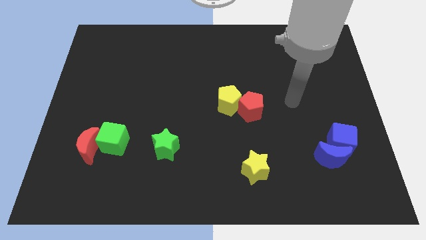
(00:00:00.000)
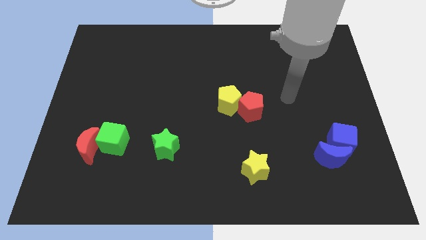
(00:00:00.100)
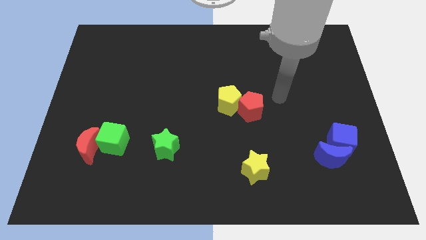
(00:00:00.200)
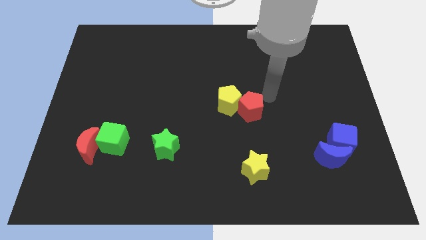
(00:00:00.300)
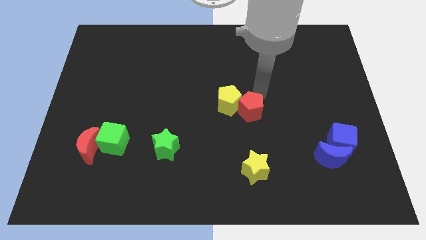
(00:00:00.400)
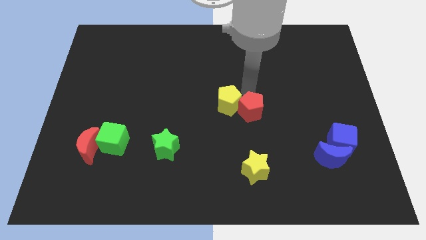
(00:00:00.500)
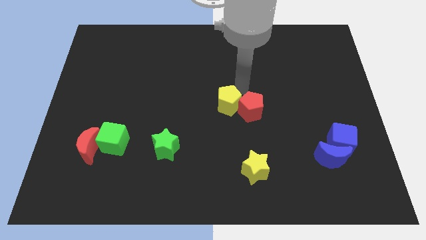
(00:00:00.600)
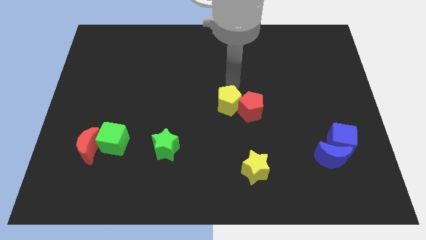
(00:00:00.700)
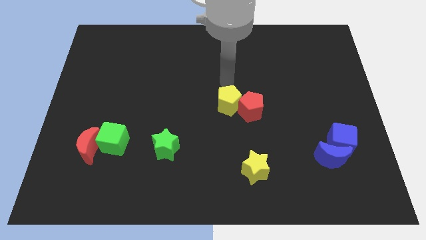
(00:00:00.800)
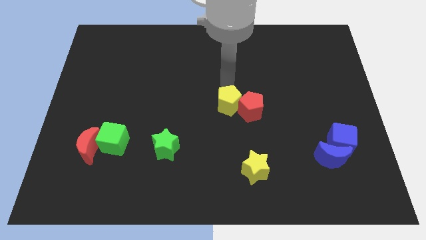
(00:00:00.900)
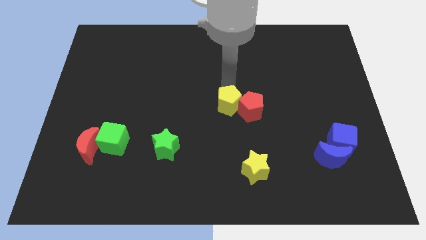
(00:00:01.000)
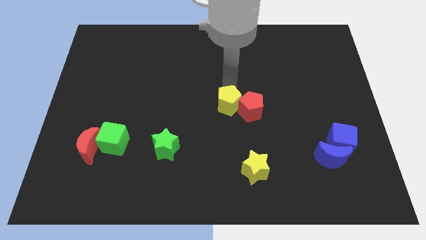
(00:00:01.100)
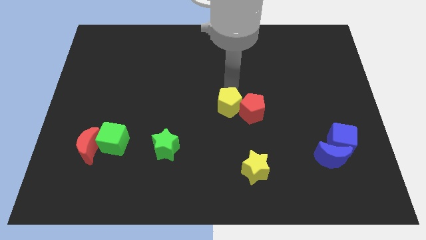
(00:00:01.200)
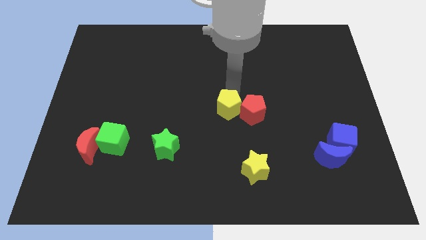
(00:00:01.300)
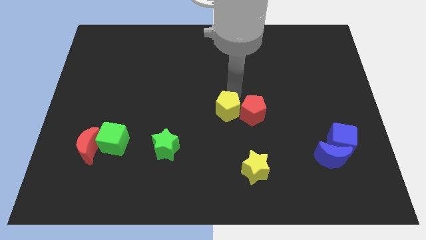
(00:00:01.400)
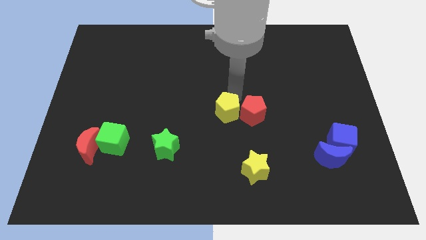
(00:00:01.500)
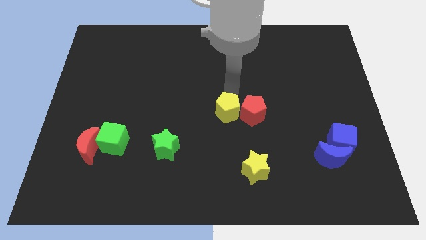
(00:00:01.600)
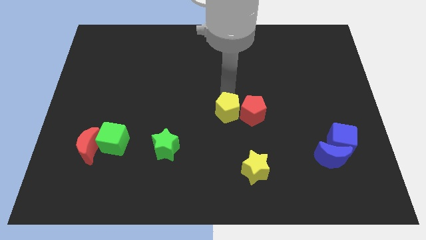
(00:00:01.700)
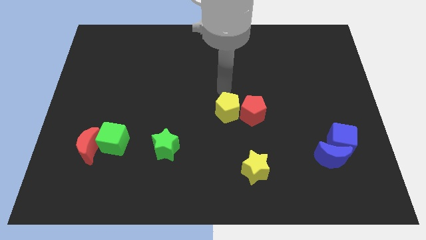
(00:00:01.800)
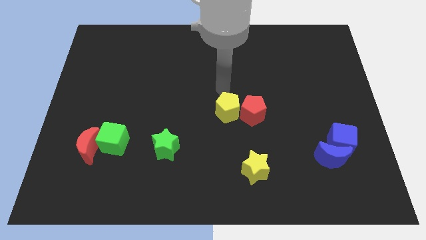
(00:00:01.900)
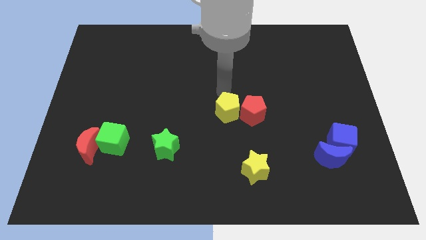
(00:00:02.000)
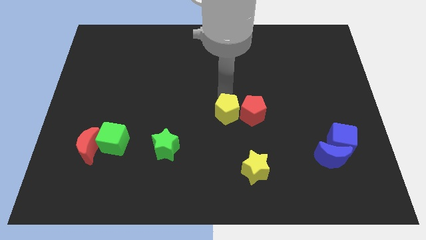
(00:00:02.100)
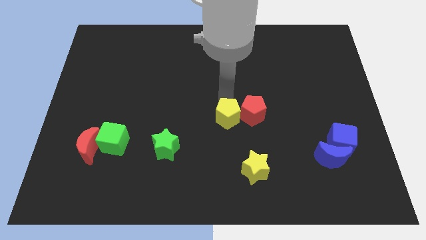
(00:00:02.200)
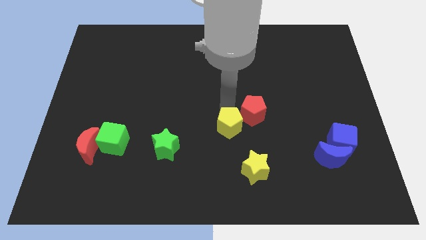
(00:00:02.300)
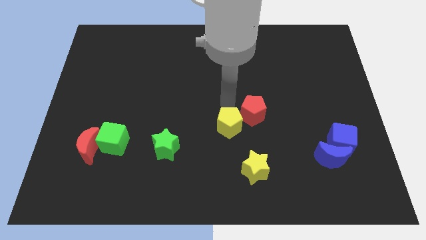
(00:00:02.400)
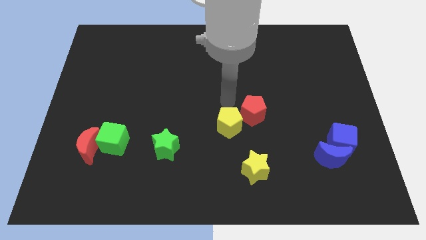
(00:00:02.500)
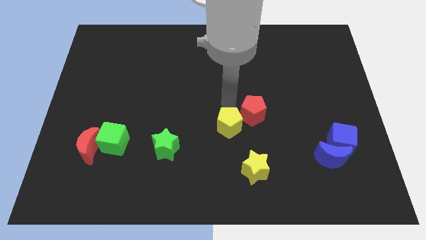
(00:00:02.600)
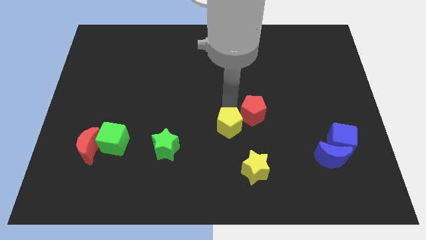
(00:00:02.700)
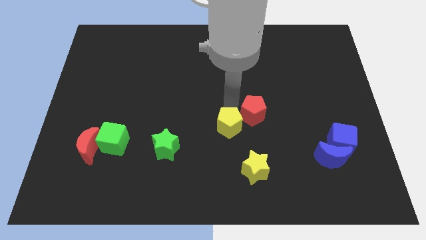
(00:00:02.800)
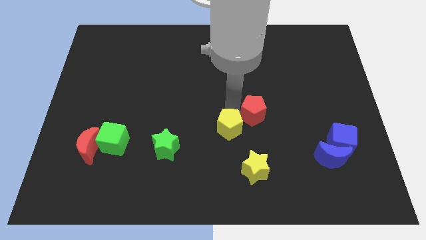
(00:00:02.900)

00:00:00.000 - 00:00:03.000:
slightly push the yellow pentagon down

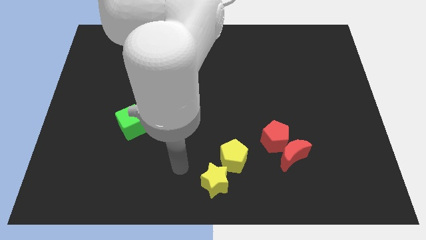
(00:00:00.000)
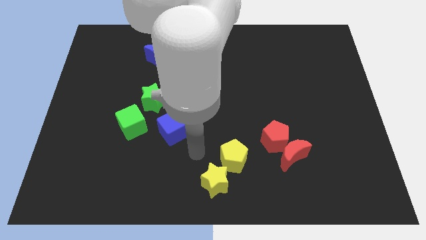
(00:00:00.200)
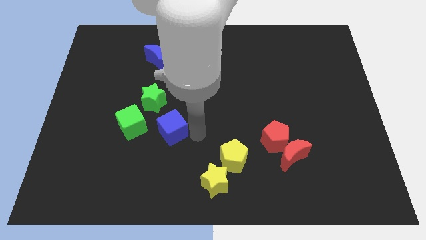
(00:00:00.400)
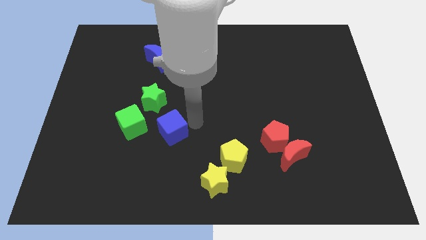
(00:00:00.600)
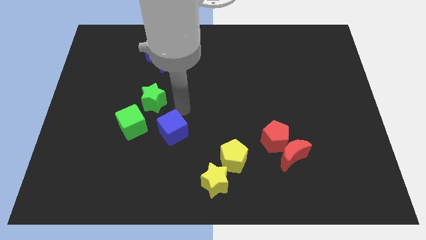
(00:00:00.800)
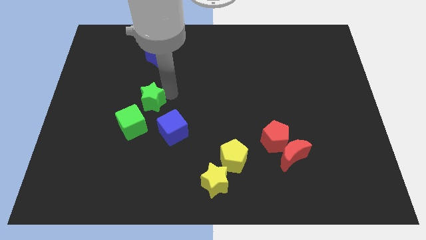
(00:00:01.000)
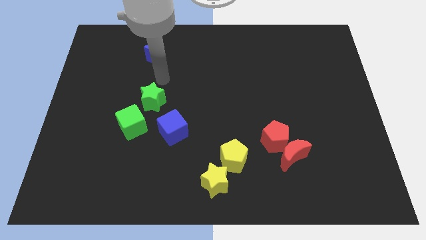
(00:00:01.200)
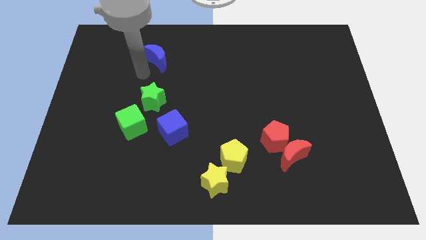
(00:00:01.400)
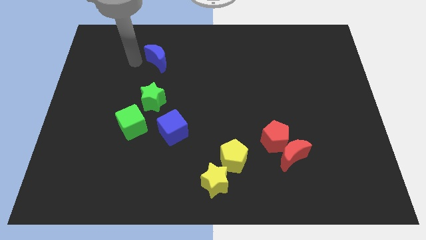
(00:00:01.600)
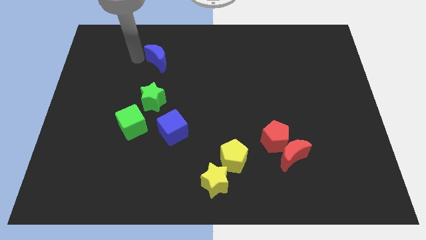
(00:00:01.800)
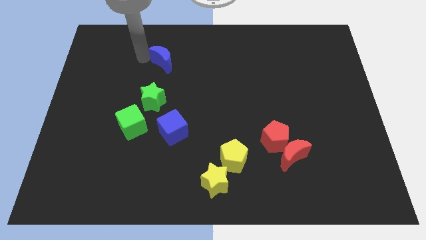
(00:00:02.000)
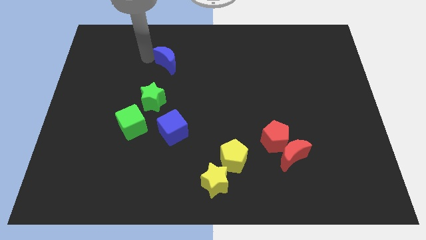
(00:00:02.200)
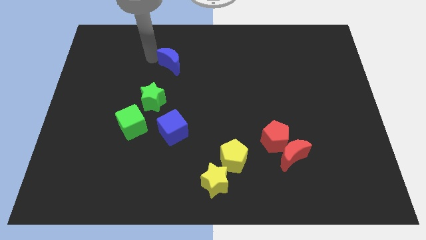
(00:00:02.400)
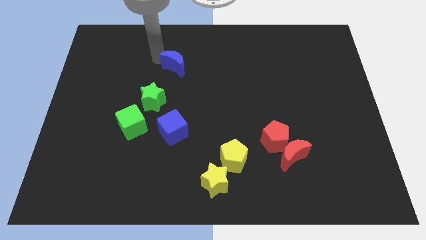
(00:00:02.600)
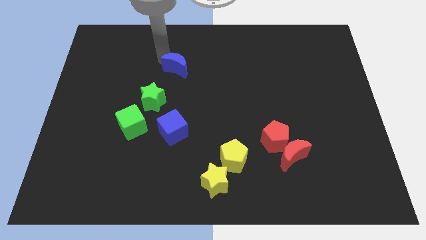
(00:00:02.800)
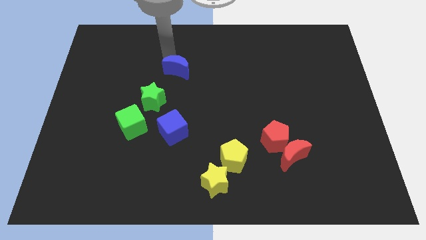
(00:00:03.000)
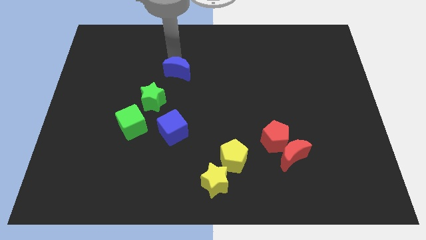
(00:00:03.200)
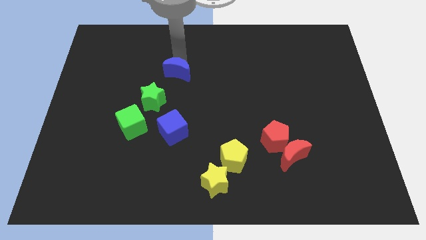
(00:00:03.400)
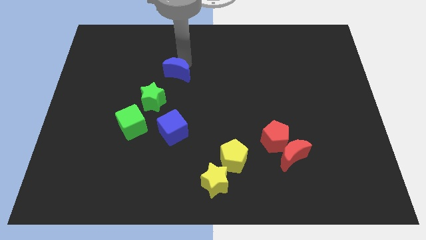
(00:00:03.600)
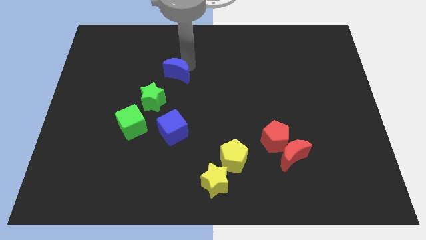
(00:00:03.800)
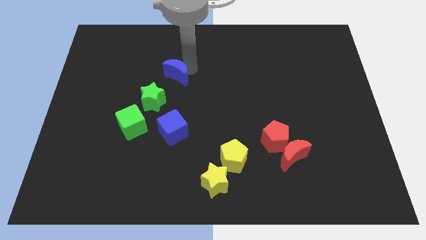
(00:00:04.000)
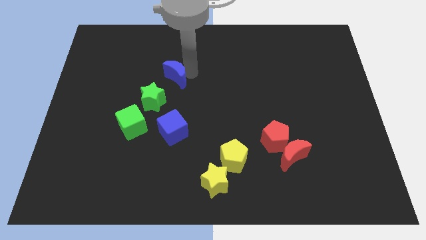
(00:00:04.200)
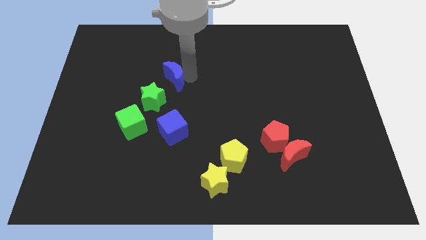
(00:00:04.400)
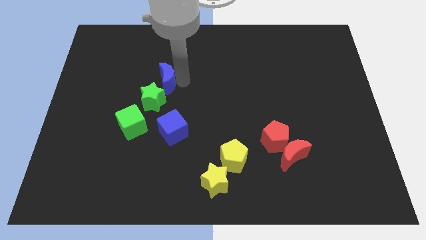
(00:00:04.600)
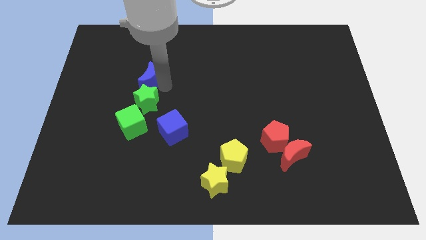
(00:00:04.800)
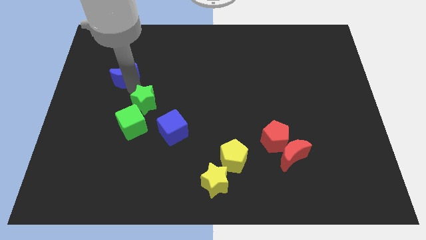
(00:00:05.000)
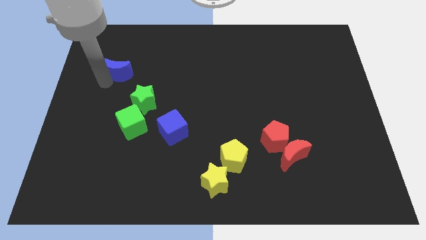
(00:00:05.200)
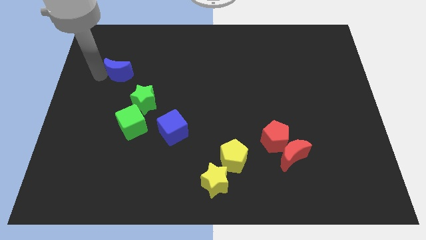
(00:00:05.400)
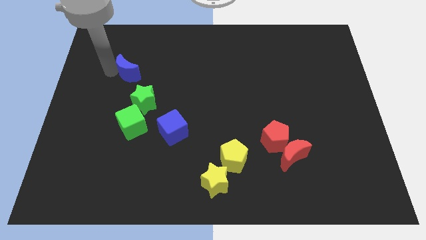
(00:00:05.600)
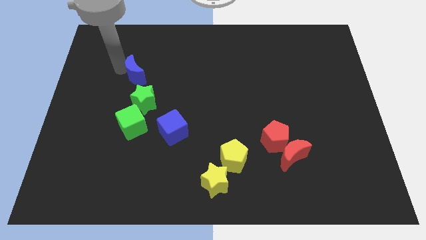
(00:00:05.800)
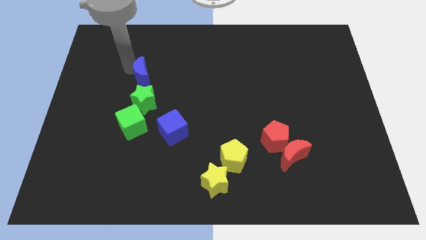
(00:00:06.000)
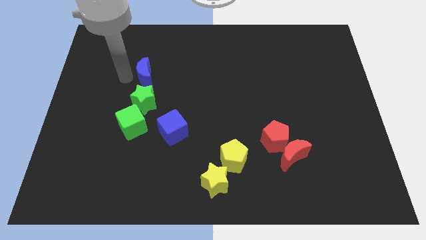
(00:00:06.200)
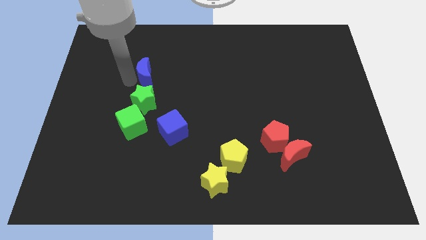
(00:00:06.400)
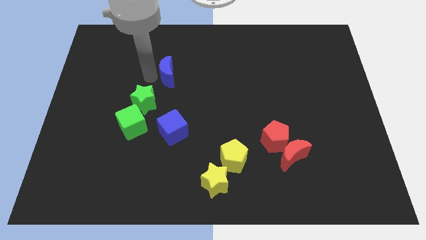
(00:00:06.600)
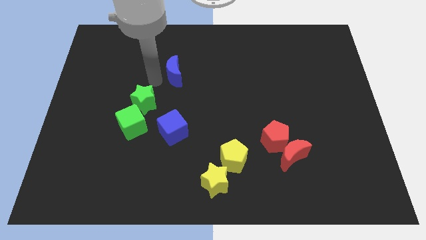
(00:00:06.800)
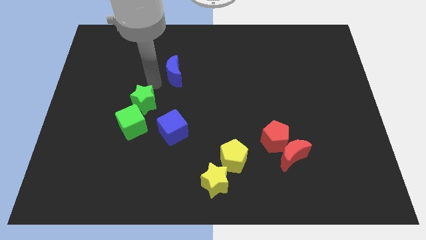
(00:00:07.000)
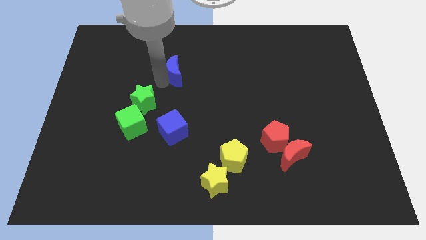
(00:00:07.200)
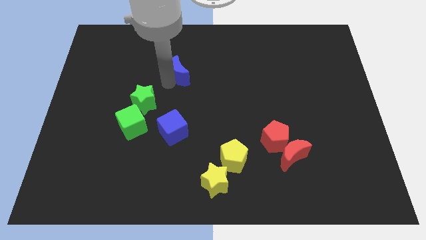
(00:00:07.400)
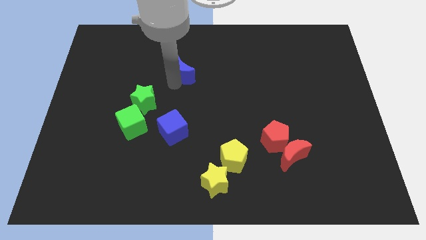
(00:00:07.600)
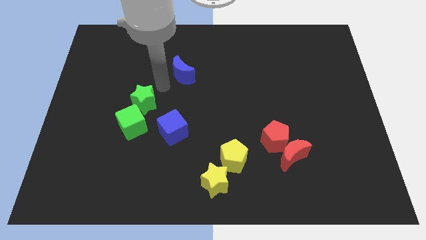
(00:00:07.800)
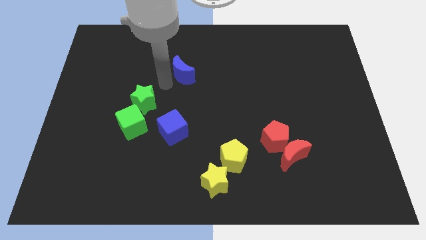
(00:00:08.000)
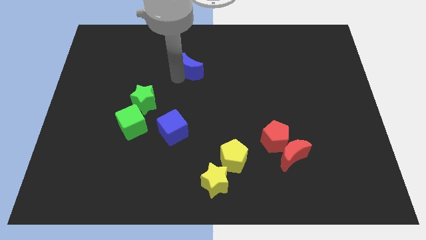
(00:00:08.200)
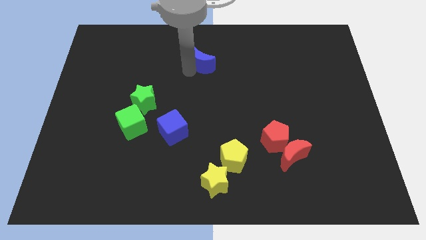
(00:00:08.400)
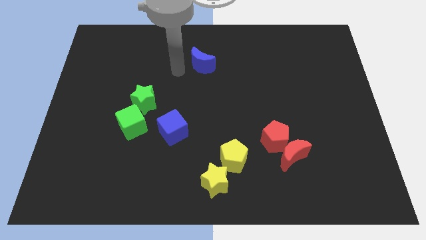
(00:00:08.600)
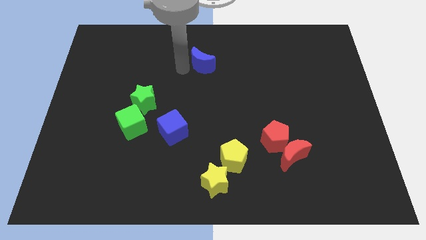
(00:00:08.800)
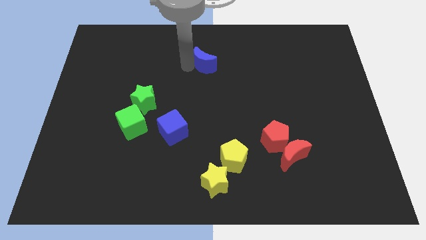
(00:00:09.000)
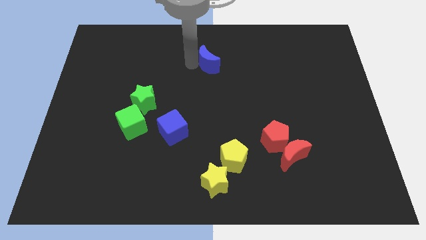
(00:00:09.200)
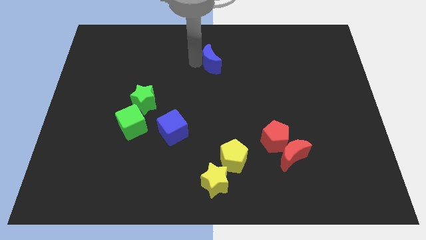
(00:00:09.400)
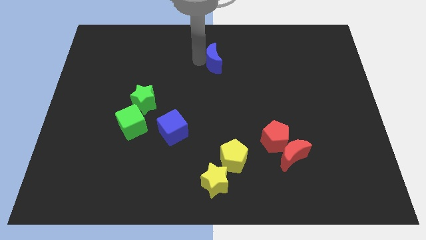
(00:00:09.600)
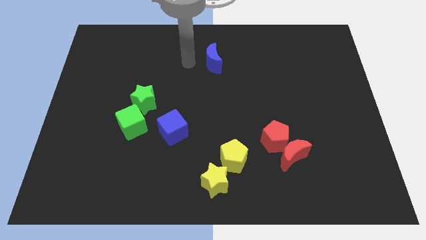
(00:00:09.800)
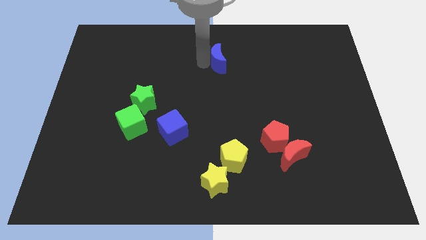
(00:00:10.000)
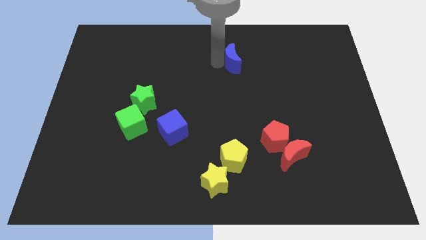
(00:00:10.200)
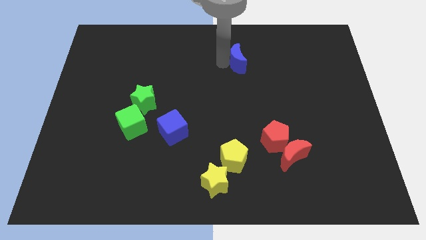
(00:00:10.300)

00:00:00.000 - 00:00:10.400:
move the blue moon to the right
